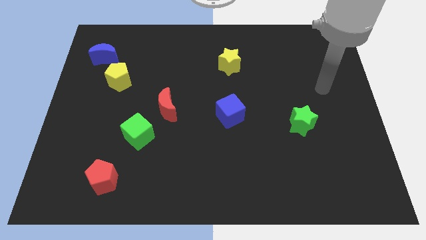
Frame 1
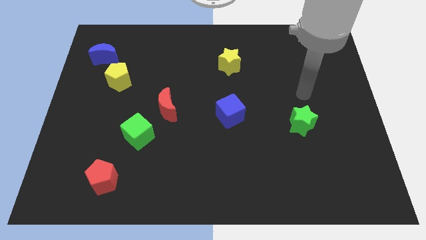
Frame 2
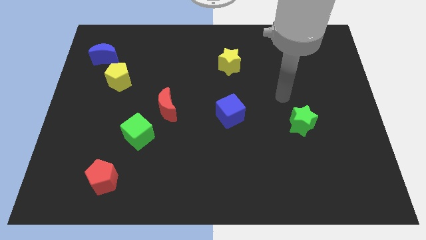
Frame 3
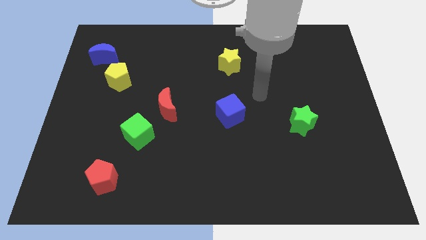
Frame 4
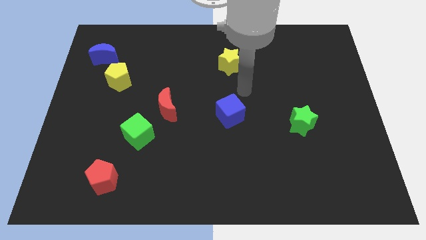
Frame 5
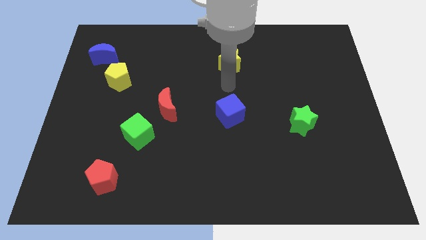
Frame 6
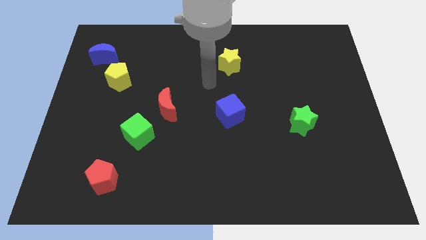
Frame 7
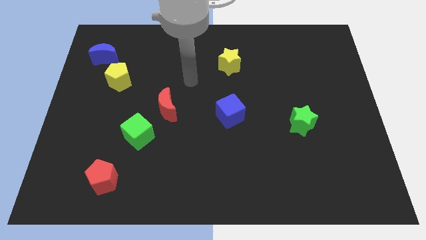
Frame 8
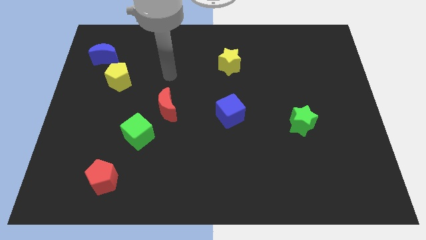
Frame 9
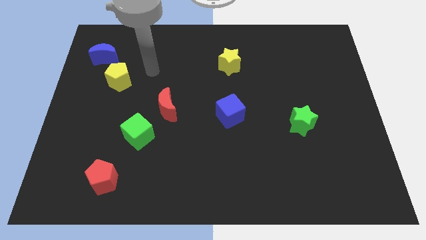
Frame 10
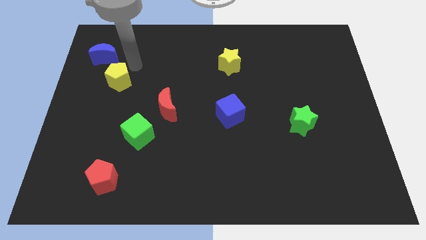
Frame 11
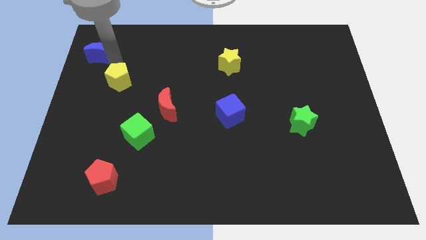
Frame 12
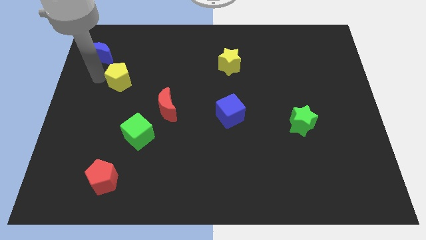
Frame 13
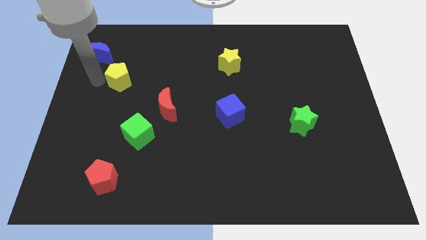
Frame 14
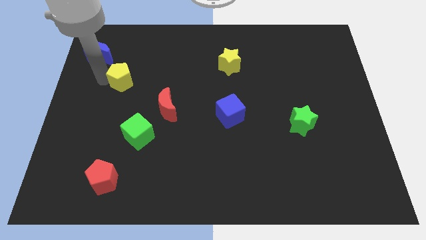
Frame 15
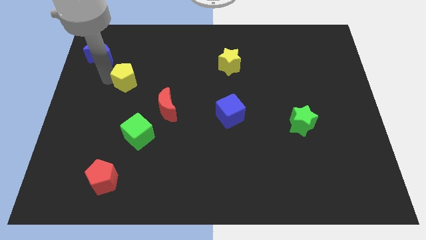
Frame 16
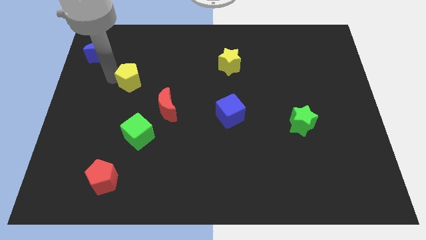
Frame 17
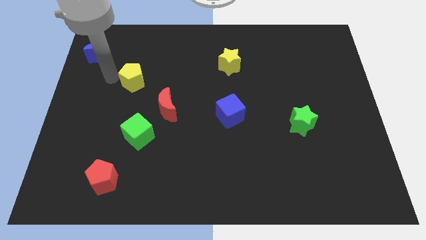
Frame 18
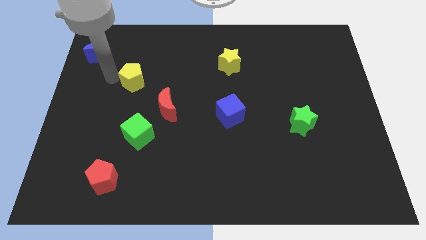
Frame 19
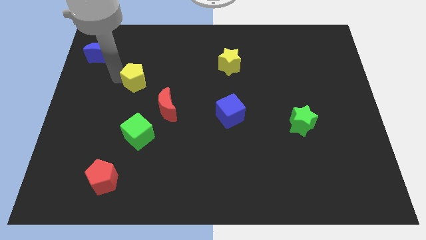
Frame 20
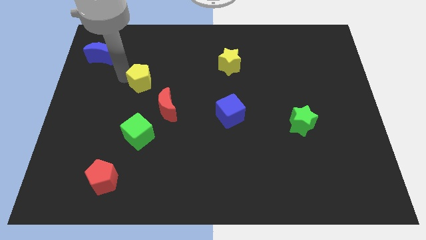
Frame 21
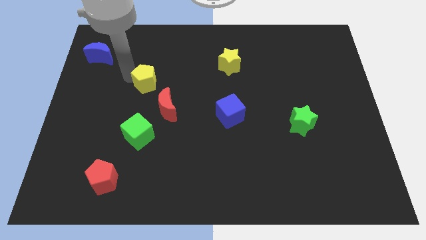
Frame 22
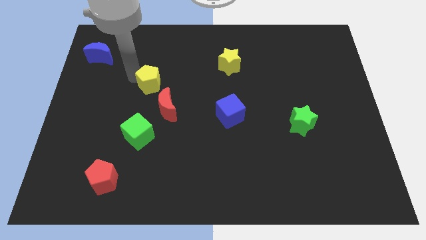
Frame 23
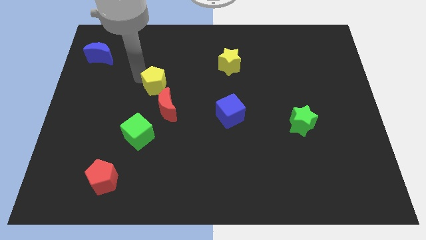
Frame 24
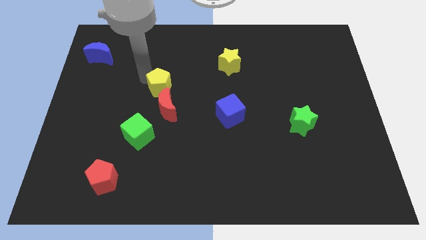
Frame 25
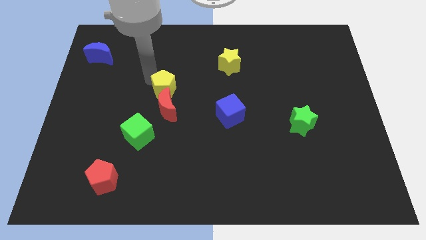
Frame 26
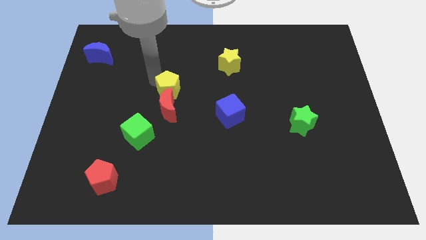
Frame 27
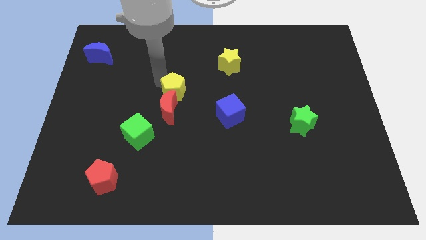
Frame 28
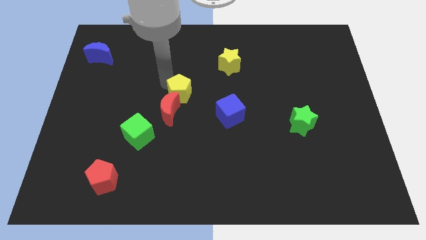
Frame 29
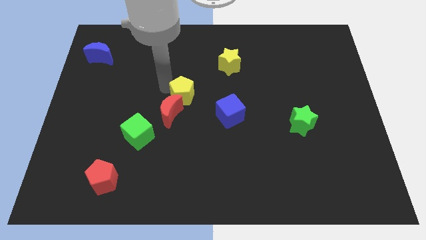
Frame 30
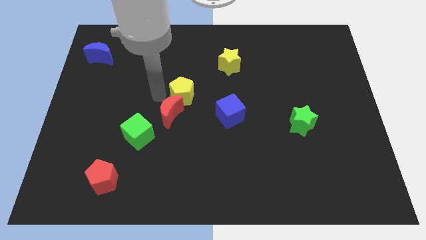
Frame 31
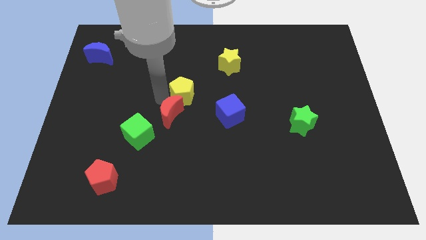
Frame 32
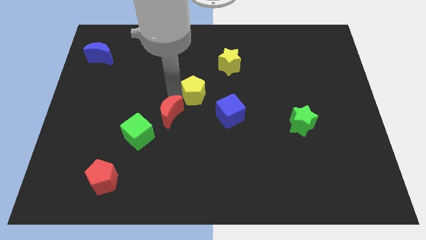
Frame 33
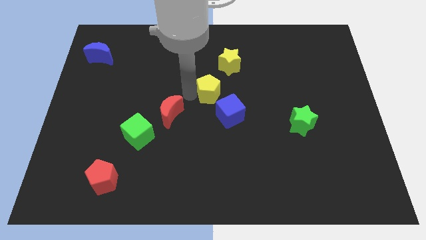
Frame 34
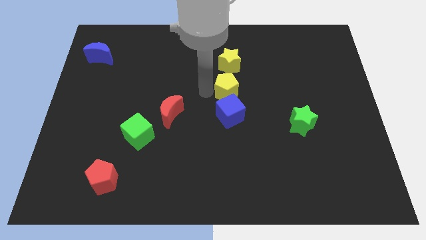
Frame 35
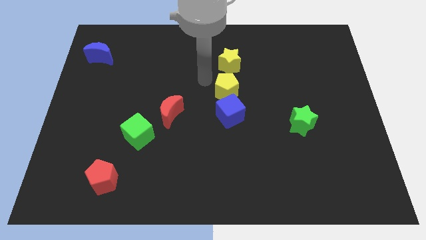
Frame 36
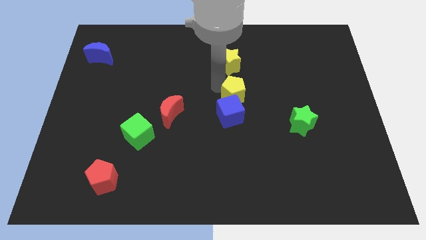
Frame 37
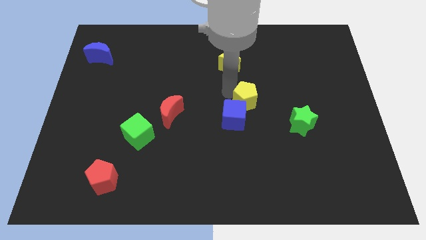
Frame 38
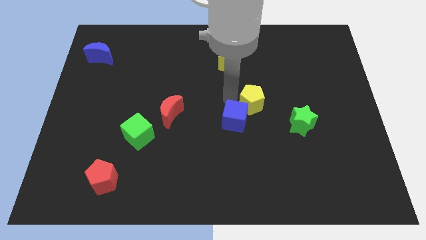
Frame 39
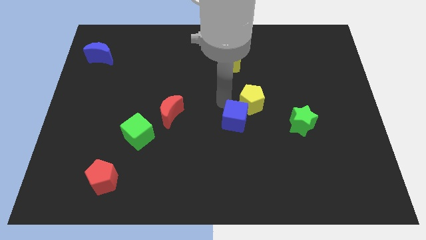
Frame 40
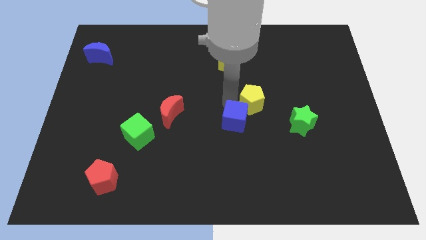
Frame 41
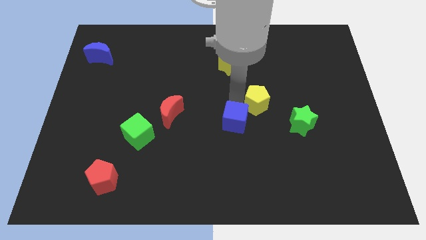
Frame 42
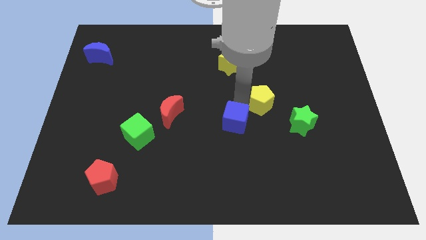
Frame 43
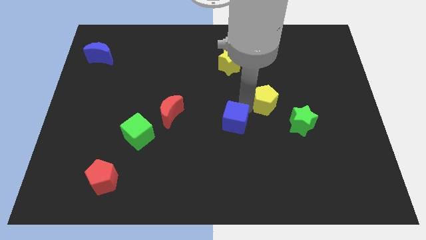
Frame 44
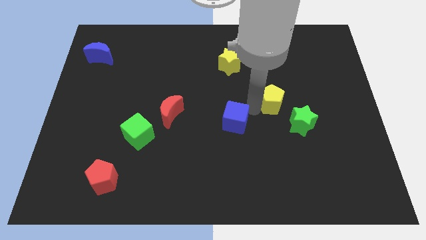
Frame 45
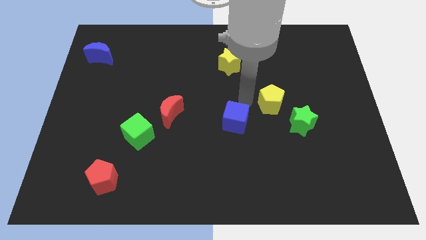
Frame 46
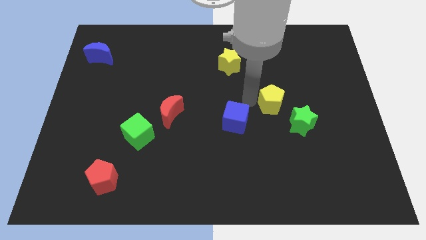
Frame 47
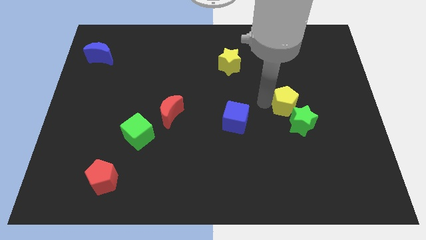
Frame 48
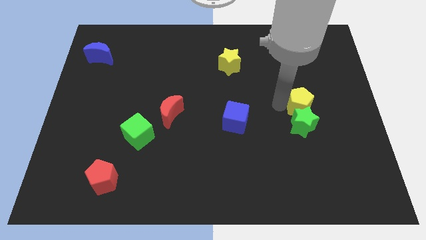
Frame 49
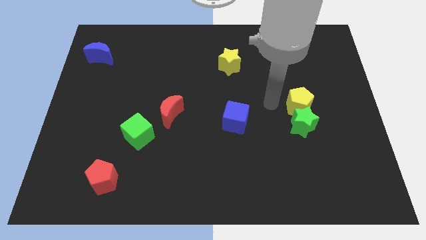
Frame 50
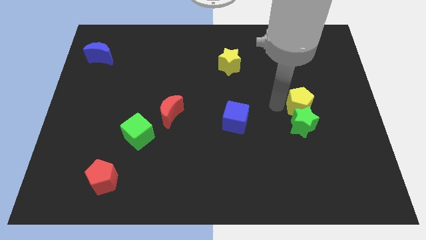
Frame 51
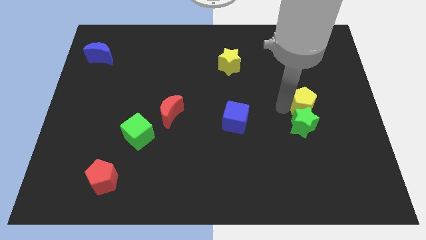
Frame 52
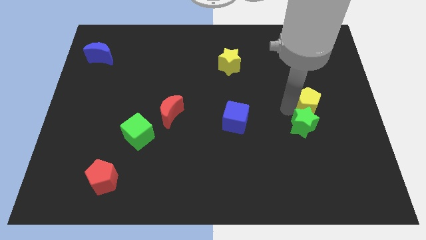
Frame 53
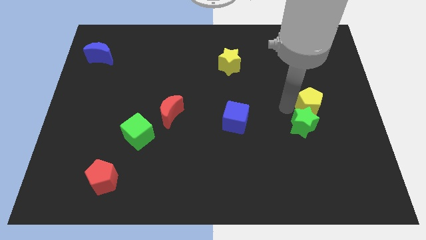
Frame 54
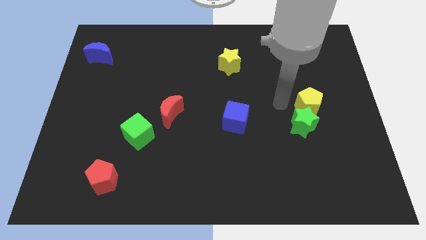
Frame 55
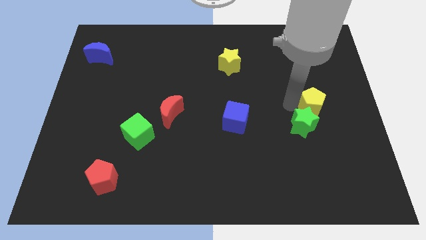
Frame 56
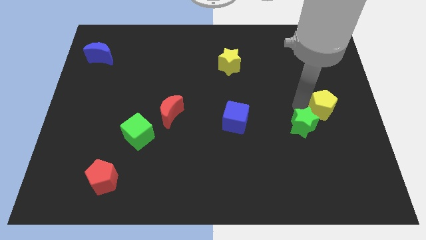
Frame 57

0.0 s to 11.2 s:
slide the yellow pentagon to the right side
